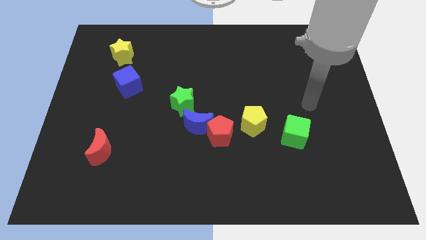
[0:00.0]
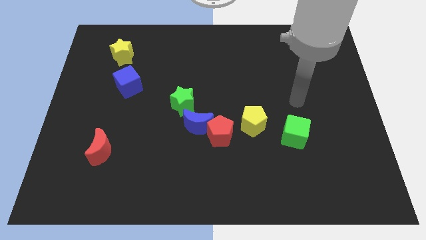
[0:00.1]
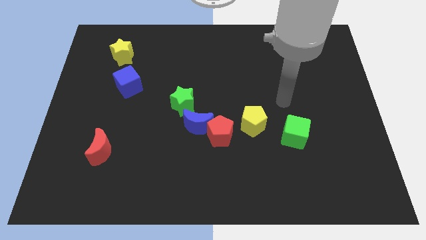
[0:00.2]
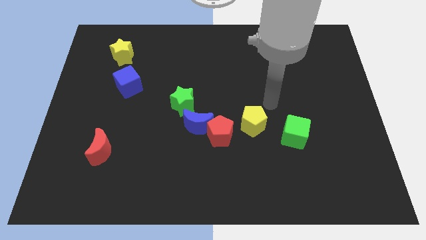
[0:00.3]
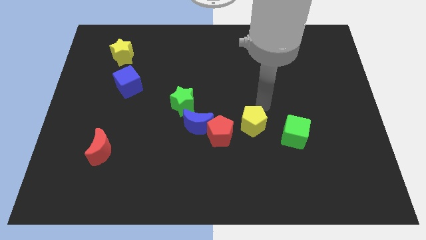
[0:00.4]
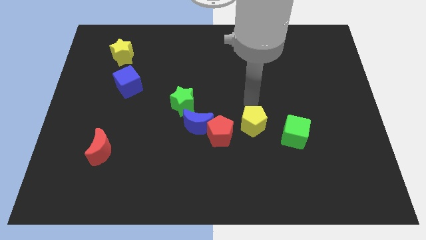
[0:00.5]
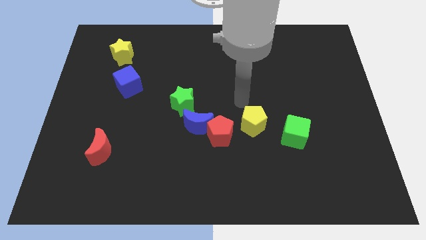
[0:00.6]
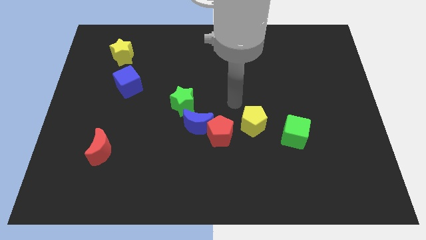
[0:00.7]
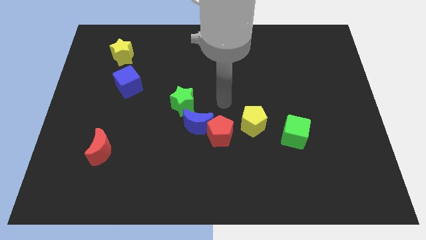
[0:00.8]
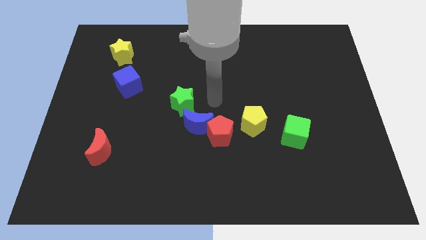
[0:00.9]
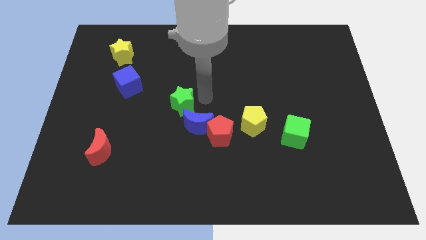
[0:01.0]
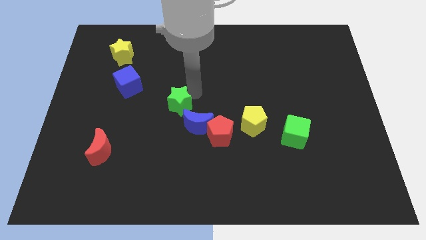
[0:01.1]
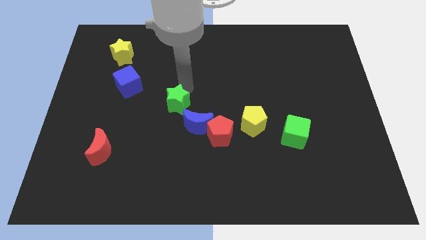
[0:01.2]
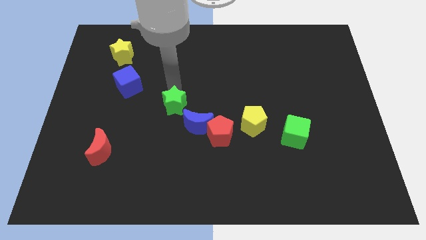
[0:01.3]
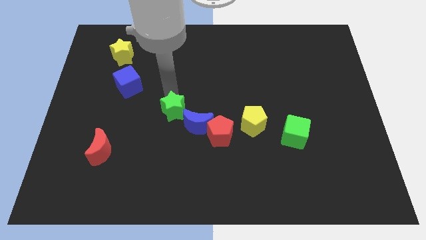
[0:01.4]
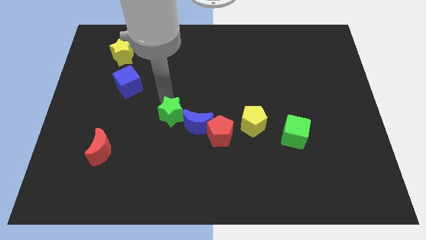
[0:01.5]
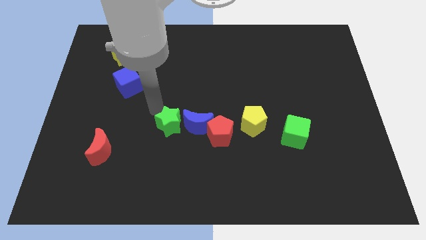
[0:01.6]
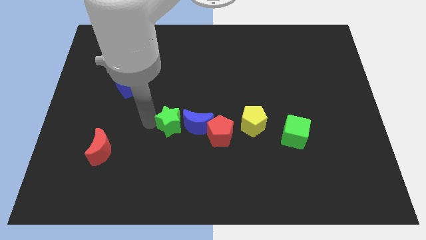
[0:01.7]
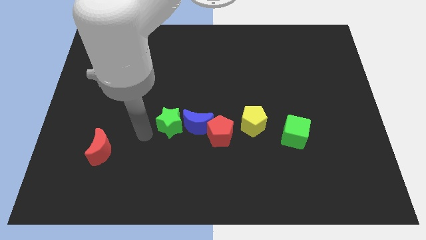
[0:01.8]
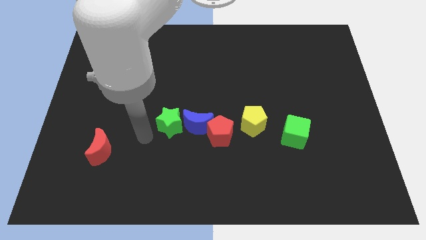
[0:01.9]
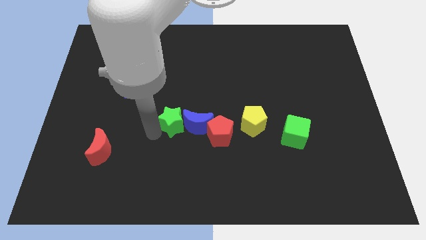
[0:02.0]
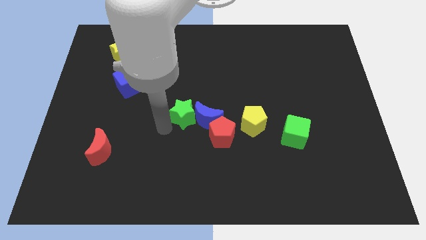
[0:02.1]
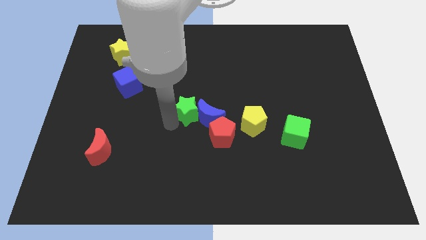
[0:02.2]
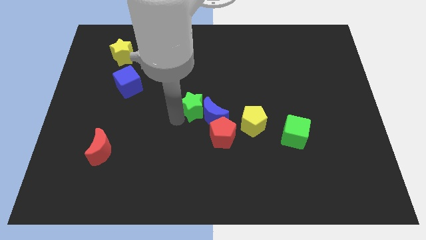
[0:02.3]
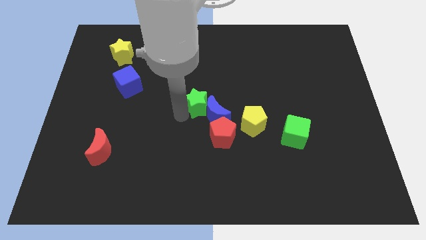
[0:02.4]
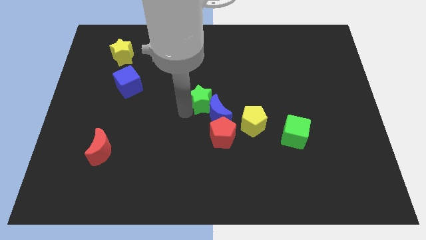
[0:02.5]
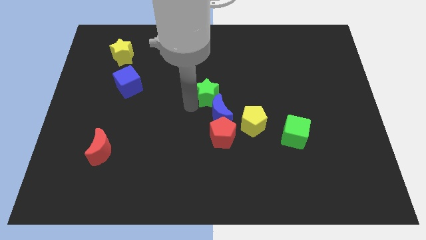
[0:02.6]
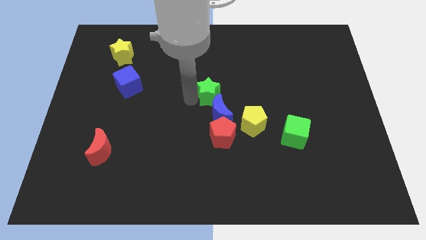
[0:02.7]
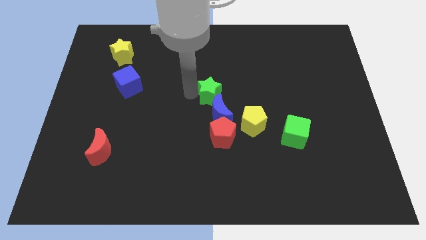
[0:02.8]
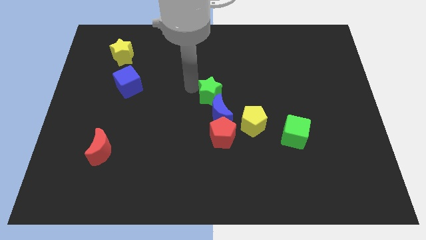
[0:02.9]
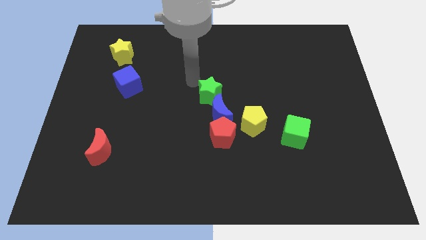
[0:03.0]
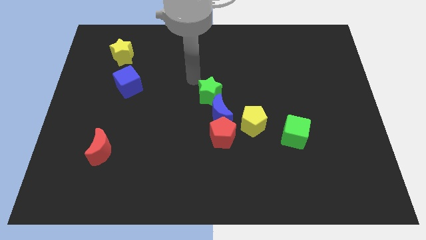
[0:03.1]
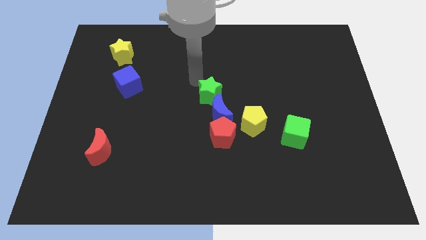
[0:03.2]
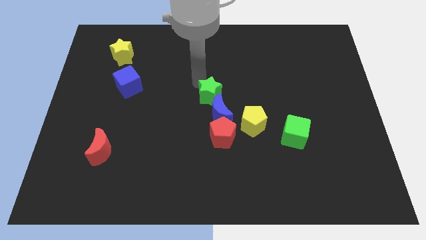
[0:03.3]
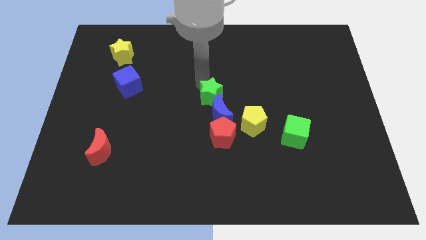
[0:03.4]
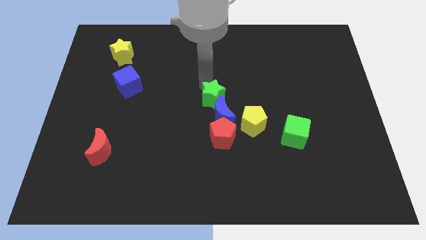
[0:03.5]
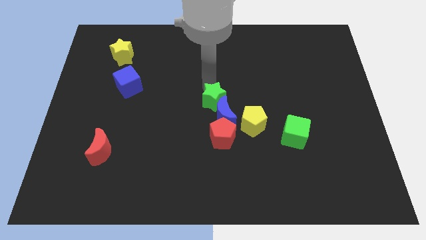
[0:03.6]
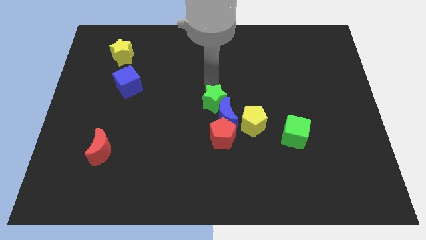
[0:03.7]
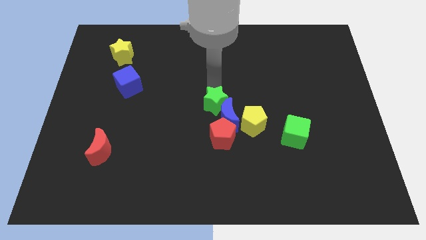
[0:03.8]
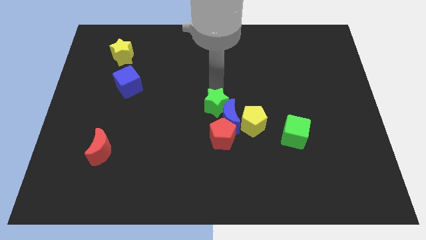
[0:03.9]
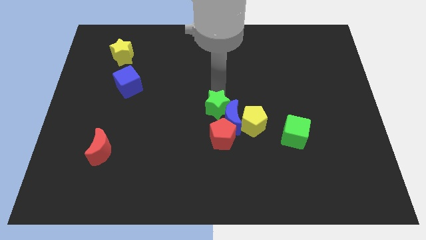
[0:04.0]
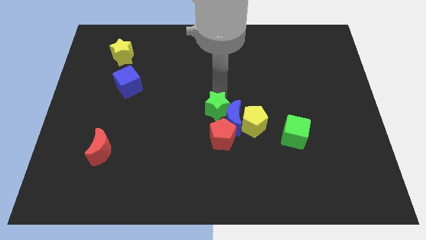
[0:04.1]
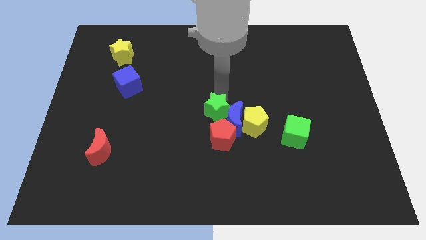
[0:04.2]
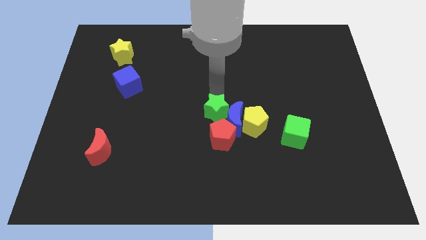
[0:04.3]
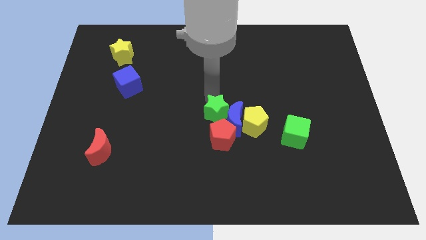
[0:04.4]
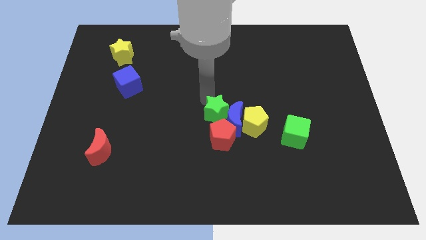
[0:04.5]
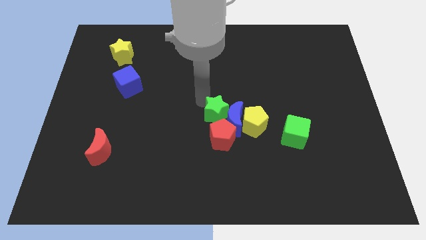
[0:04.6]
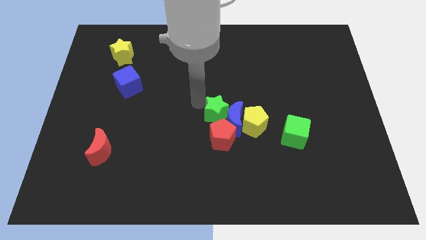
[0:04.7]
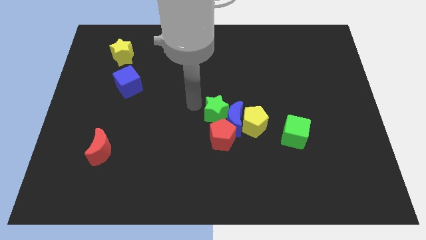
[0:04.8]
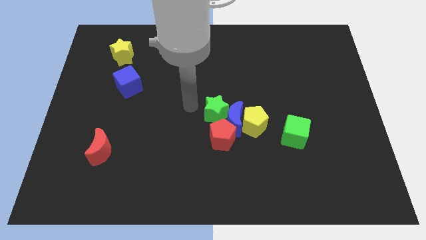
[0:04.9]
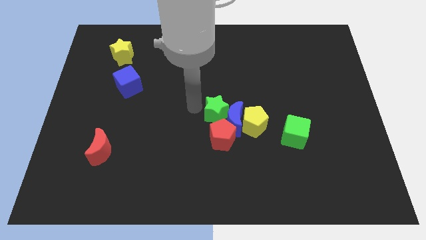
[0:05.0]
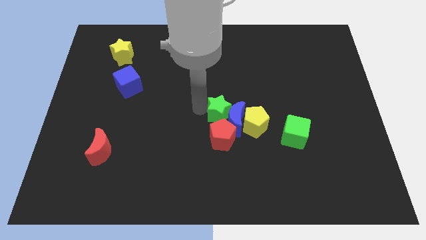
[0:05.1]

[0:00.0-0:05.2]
push the green star slightly downwards and to the right diagonally

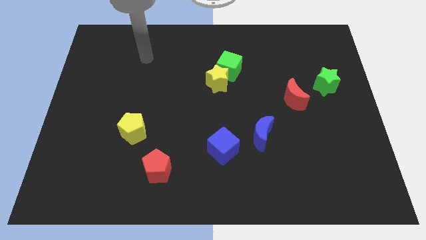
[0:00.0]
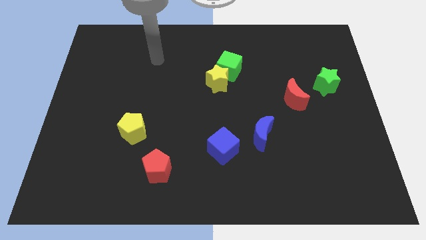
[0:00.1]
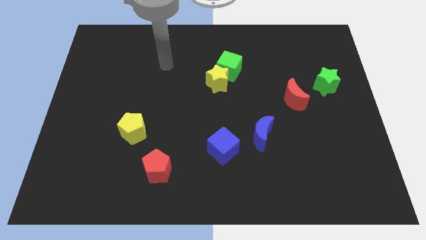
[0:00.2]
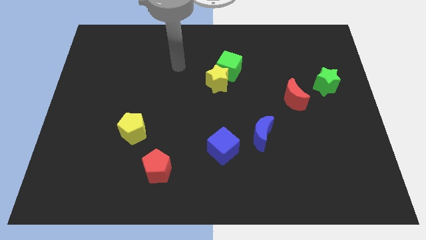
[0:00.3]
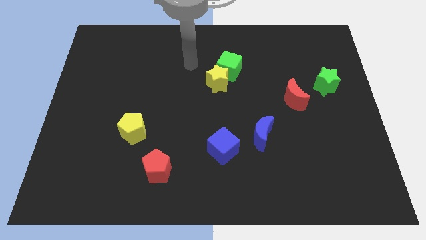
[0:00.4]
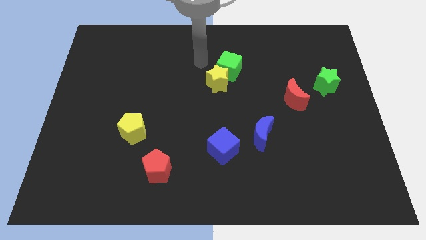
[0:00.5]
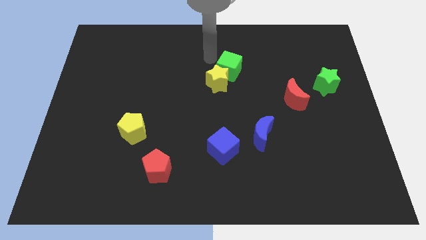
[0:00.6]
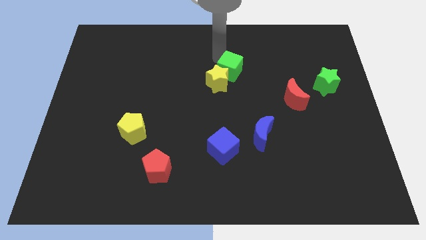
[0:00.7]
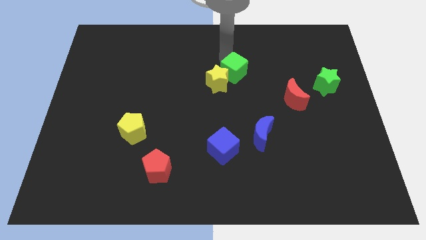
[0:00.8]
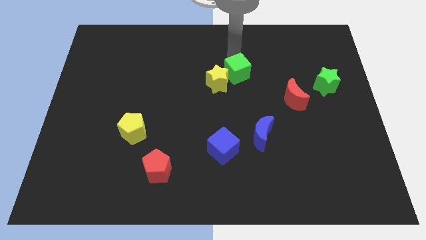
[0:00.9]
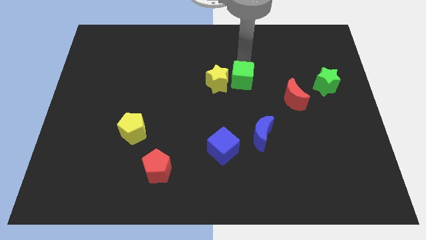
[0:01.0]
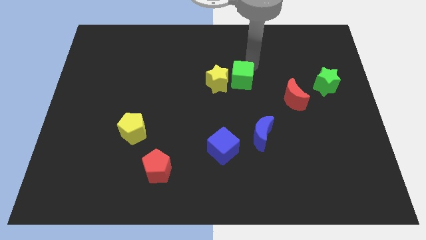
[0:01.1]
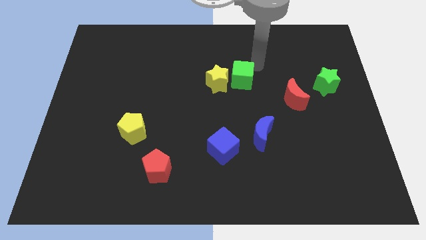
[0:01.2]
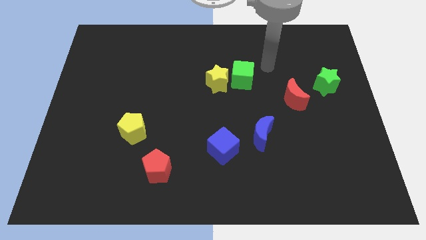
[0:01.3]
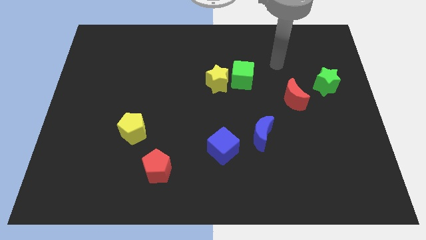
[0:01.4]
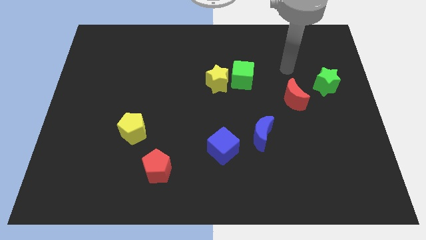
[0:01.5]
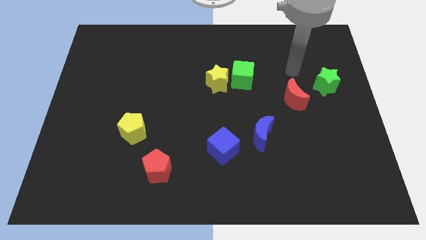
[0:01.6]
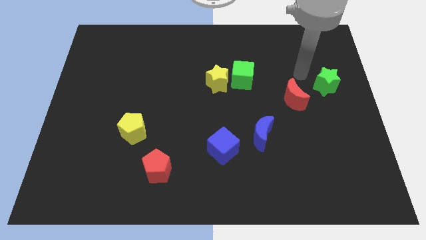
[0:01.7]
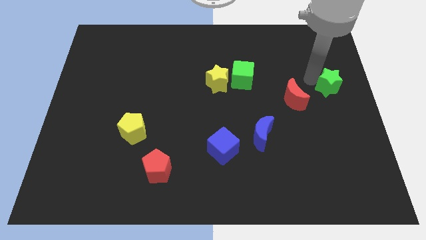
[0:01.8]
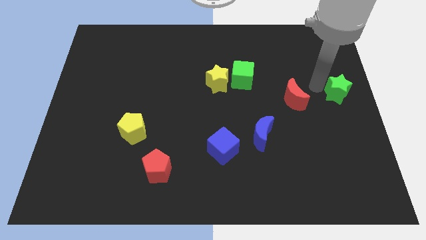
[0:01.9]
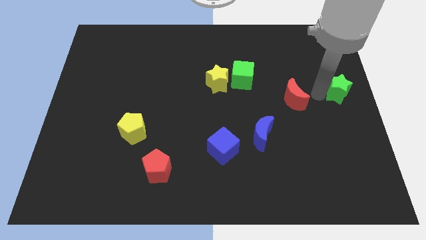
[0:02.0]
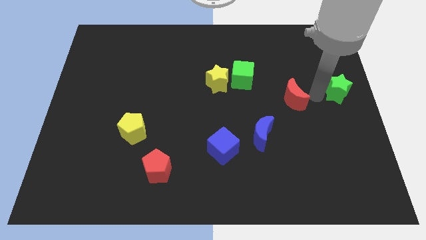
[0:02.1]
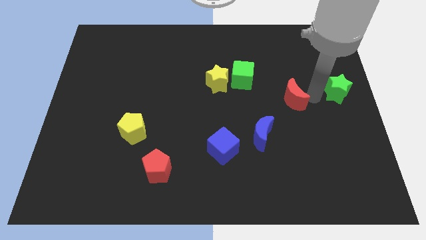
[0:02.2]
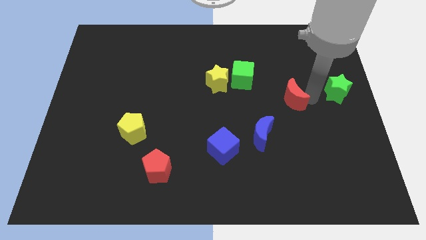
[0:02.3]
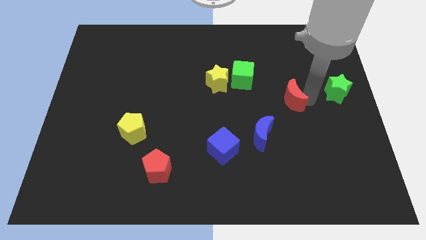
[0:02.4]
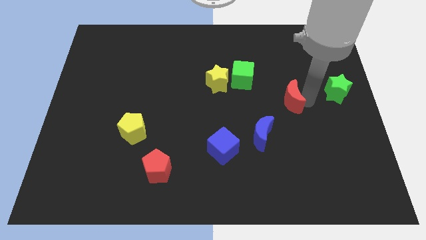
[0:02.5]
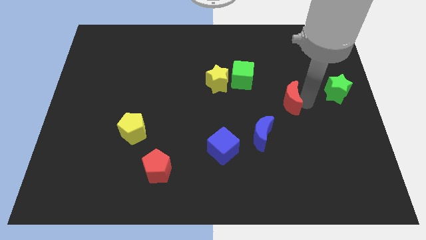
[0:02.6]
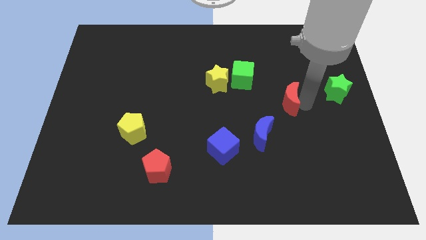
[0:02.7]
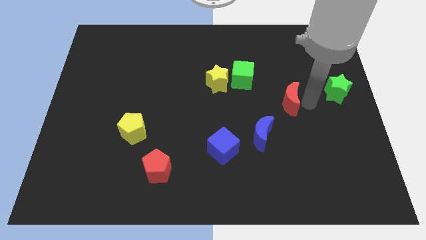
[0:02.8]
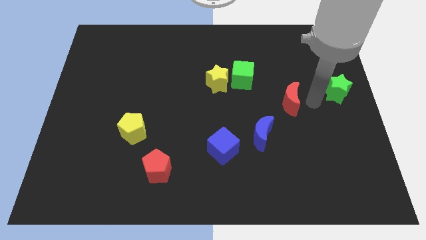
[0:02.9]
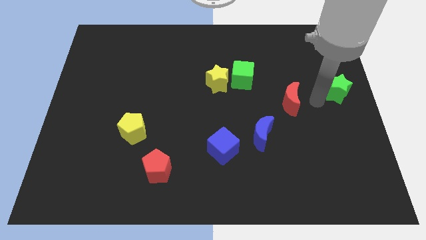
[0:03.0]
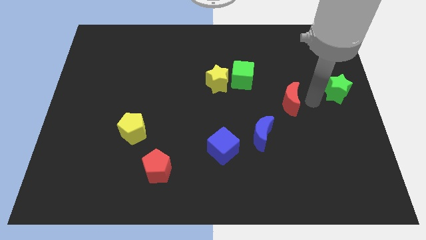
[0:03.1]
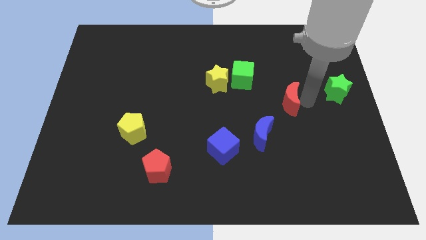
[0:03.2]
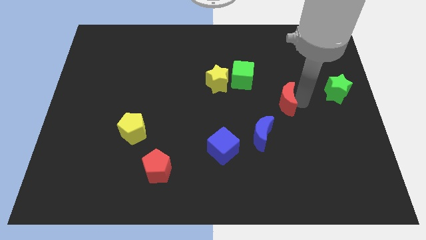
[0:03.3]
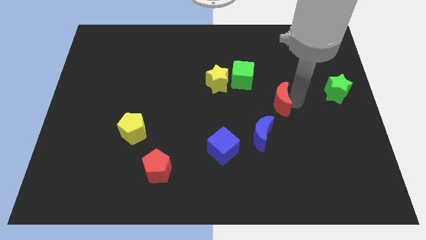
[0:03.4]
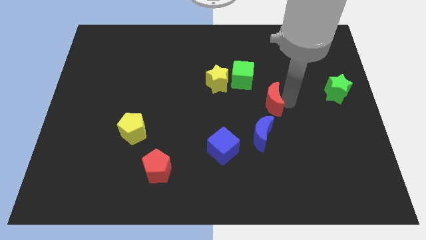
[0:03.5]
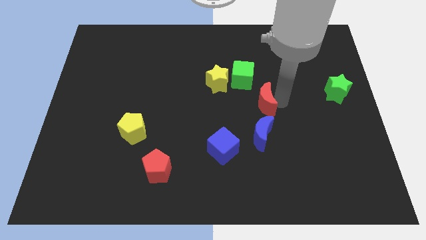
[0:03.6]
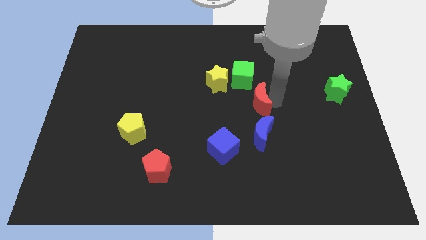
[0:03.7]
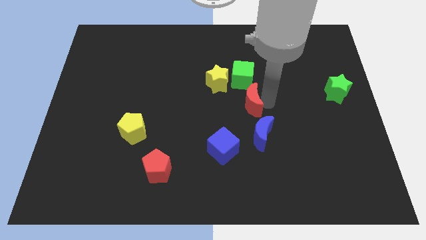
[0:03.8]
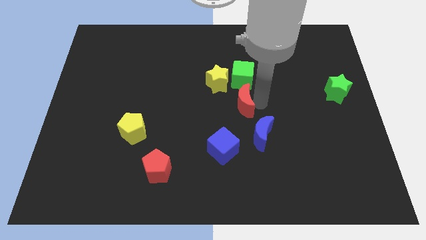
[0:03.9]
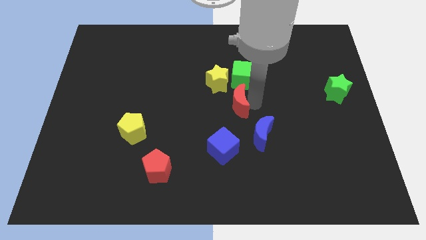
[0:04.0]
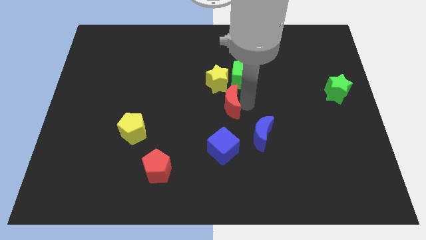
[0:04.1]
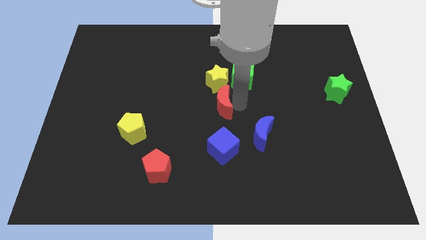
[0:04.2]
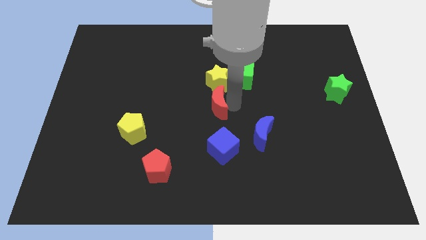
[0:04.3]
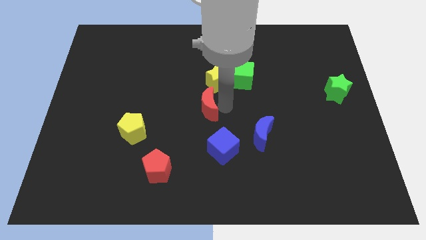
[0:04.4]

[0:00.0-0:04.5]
push the red moon to the left
